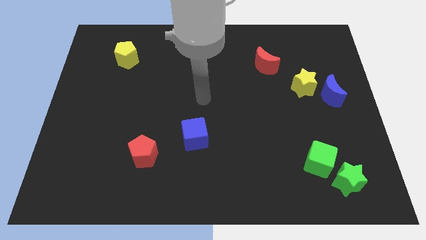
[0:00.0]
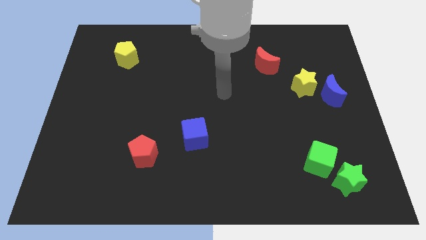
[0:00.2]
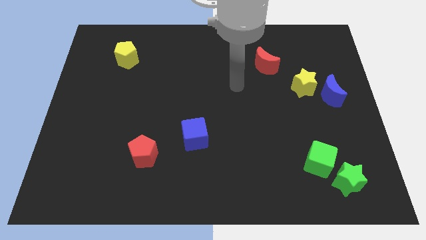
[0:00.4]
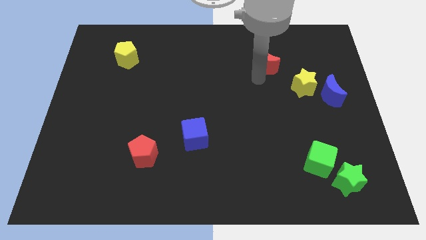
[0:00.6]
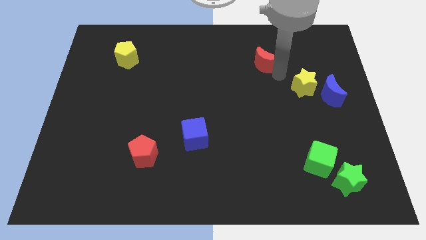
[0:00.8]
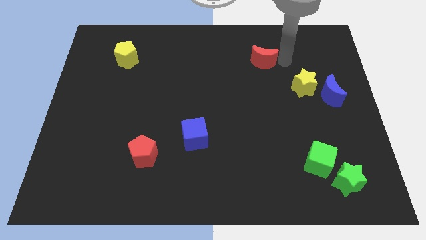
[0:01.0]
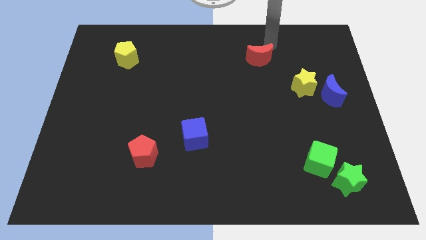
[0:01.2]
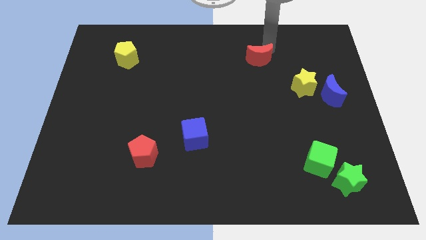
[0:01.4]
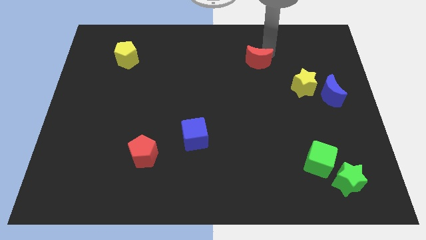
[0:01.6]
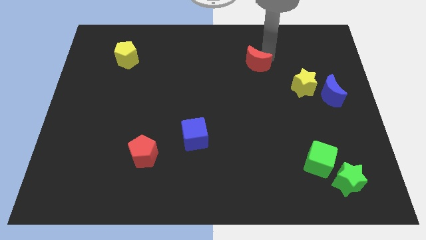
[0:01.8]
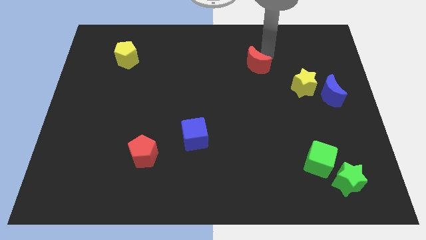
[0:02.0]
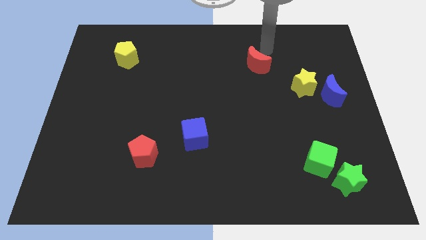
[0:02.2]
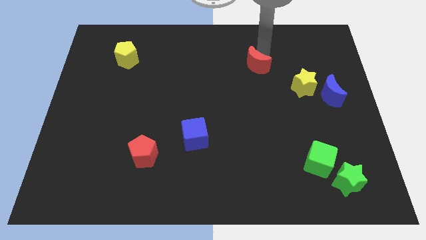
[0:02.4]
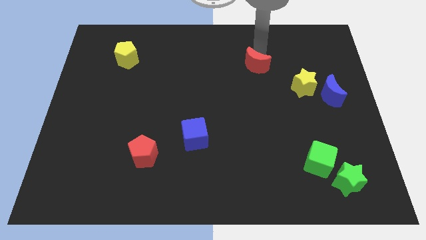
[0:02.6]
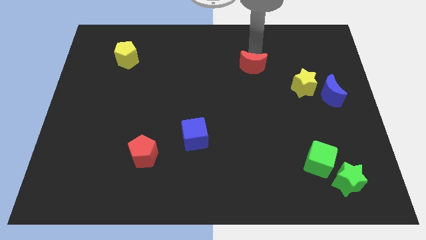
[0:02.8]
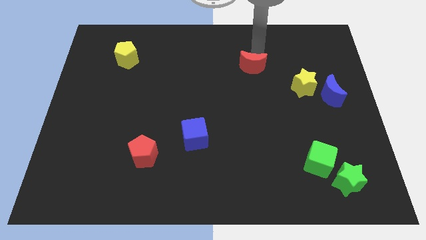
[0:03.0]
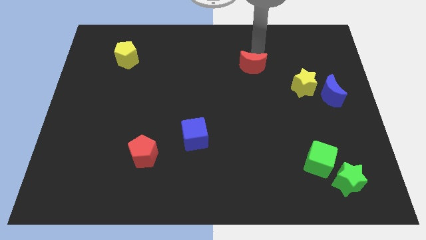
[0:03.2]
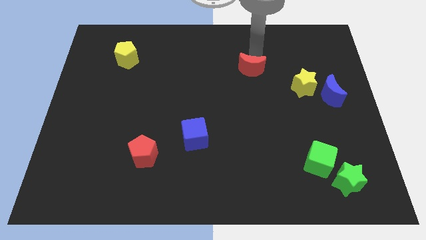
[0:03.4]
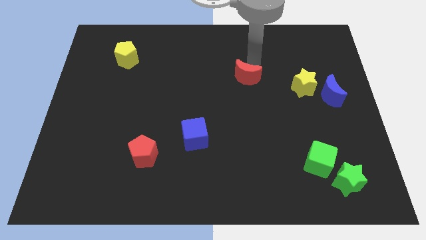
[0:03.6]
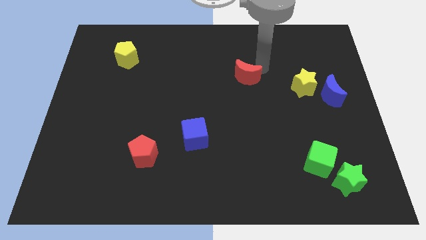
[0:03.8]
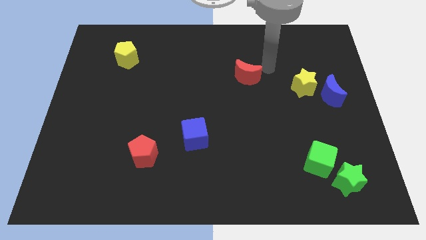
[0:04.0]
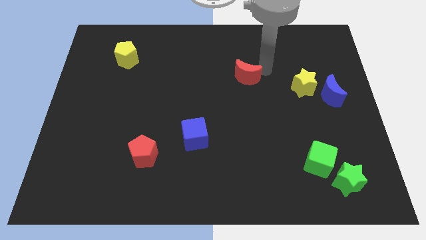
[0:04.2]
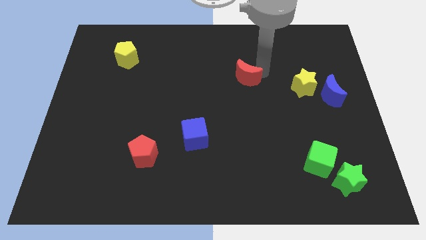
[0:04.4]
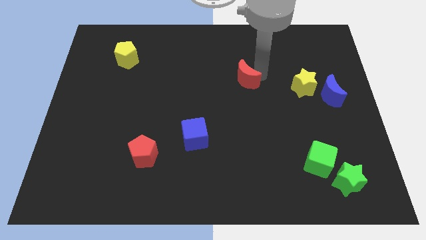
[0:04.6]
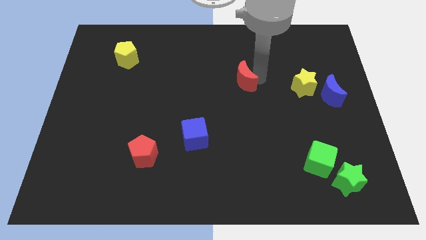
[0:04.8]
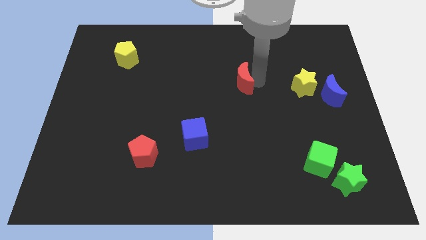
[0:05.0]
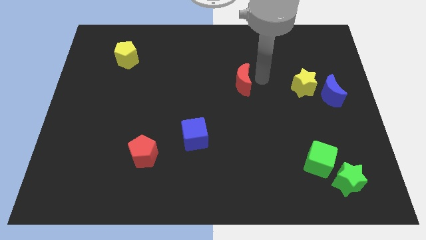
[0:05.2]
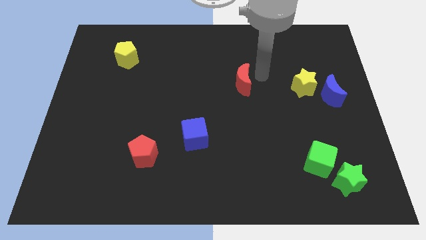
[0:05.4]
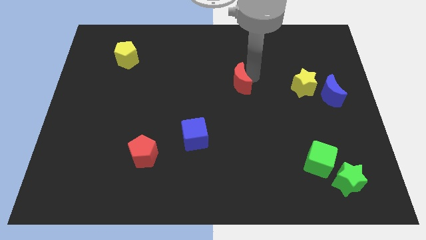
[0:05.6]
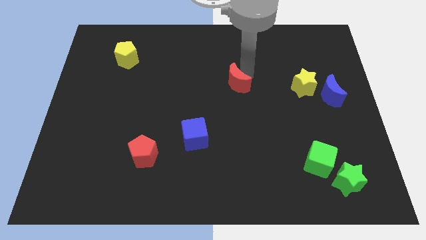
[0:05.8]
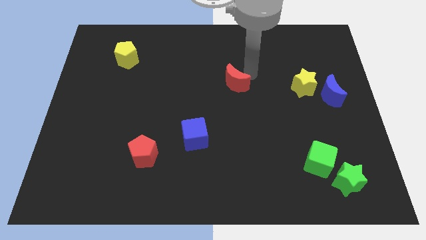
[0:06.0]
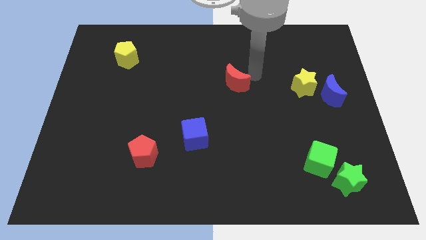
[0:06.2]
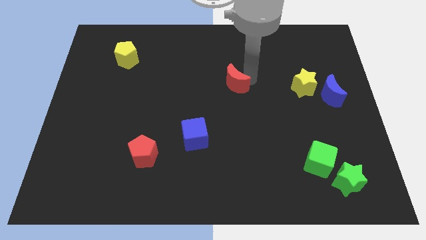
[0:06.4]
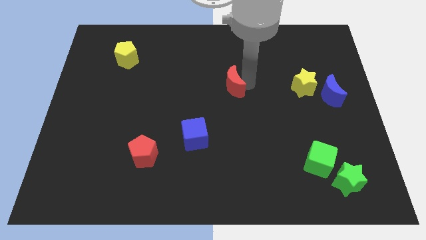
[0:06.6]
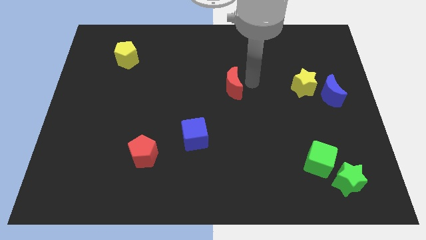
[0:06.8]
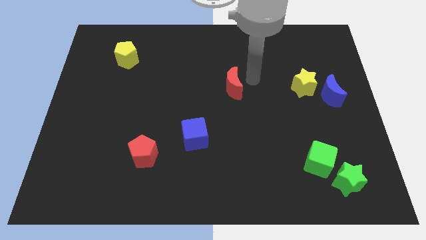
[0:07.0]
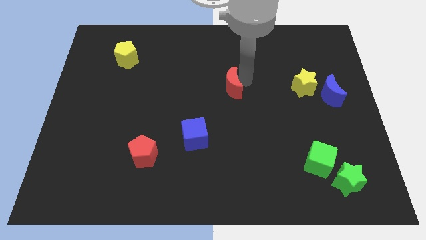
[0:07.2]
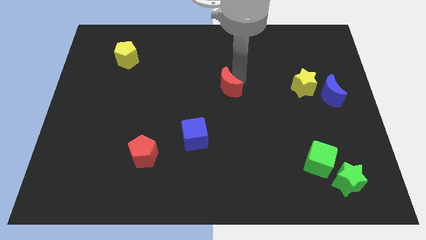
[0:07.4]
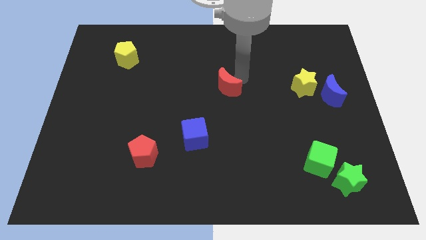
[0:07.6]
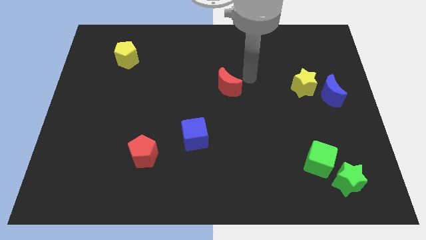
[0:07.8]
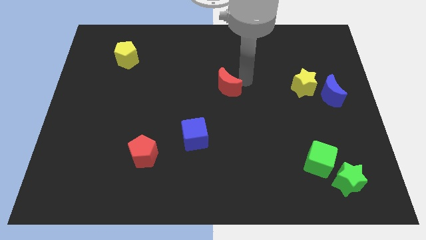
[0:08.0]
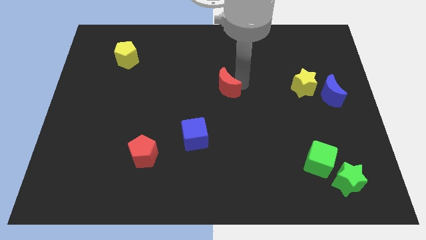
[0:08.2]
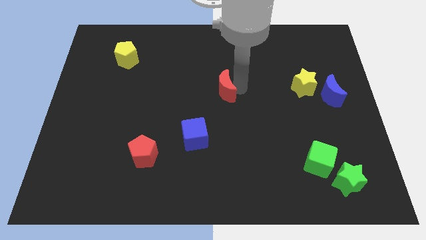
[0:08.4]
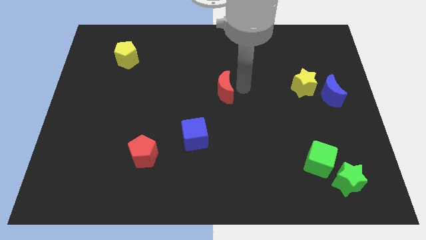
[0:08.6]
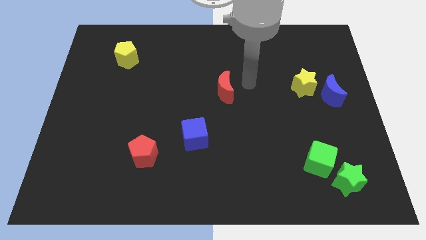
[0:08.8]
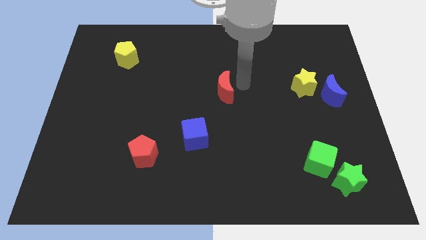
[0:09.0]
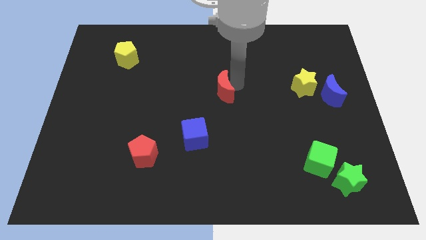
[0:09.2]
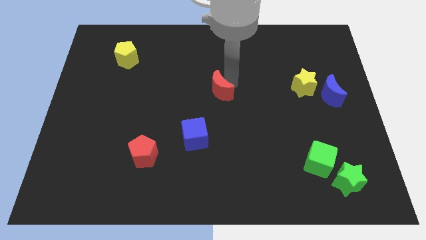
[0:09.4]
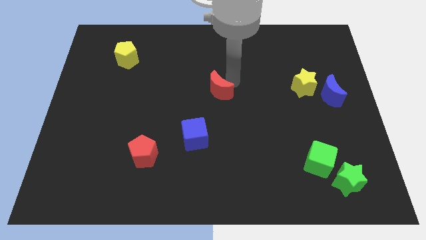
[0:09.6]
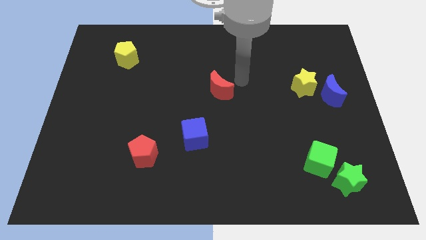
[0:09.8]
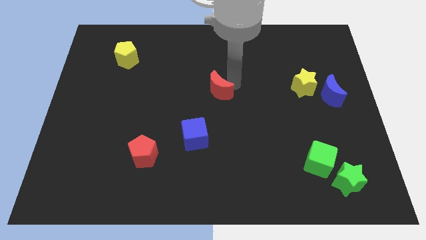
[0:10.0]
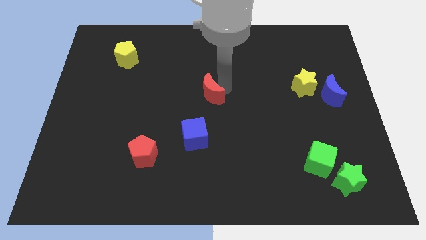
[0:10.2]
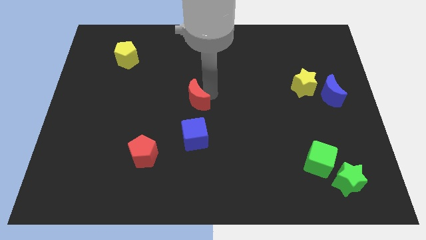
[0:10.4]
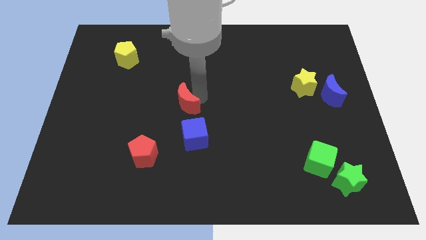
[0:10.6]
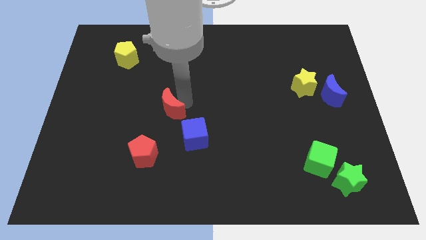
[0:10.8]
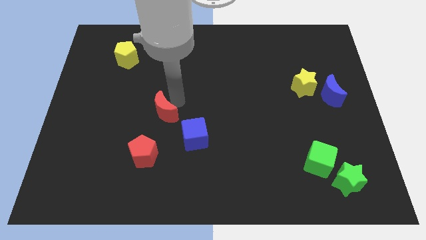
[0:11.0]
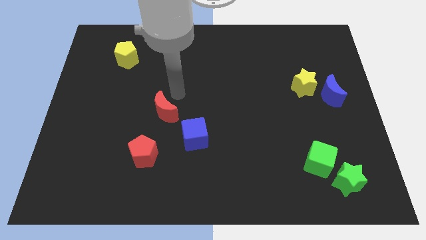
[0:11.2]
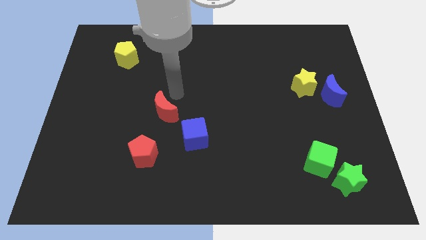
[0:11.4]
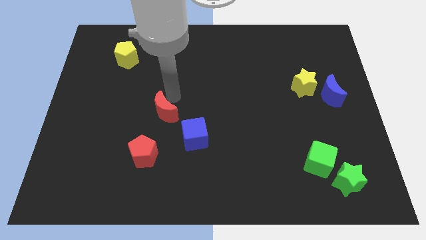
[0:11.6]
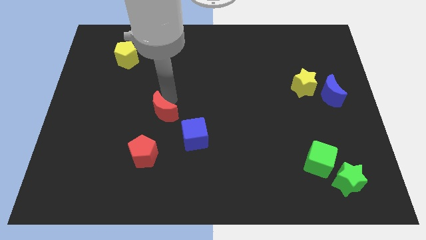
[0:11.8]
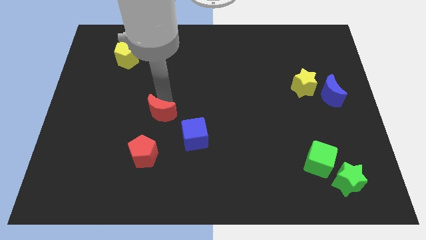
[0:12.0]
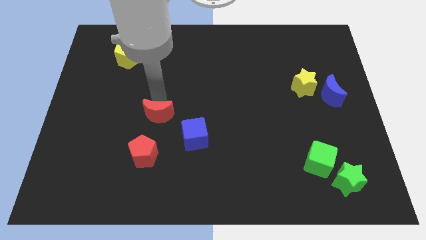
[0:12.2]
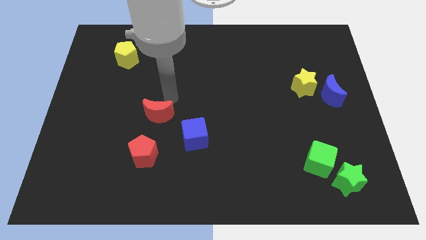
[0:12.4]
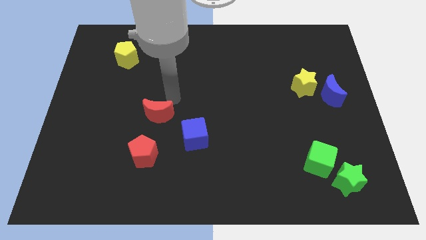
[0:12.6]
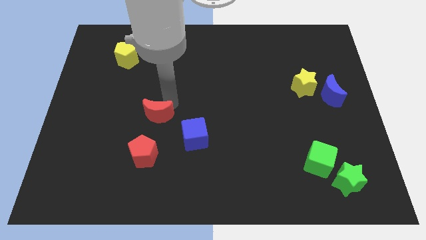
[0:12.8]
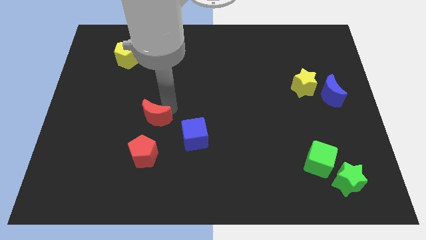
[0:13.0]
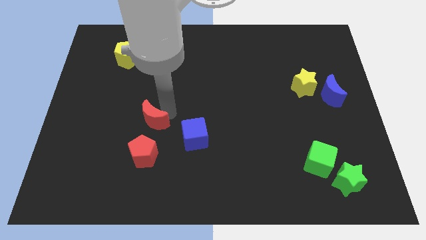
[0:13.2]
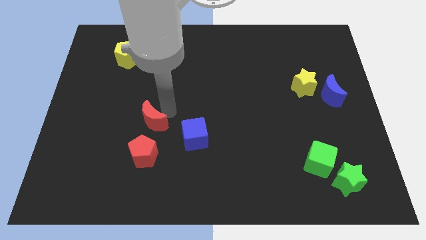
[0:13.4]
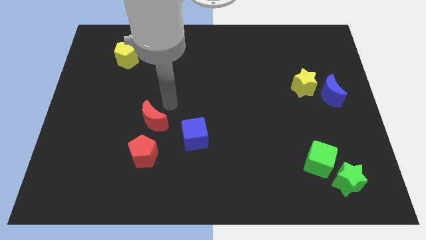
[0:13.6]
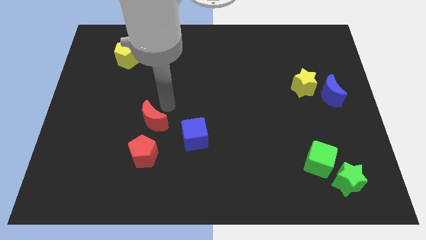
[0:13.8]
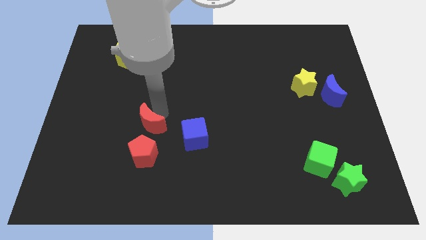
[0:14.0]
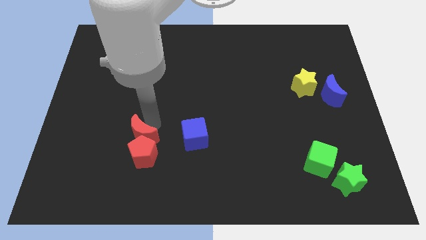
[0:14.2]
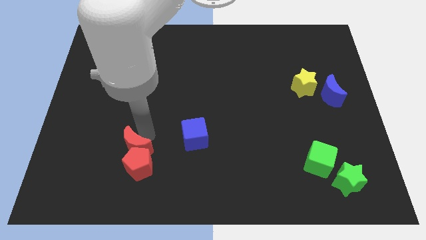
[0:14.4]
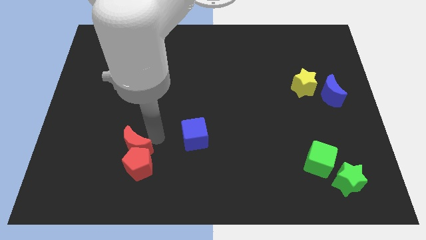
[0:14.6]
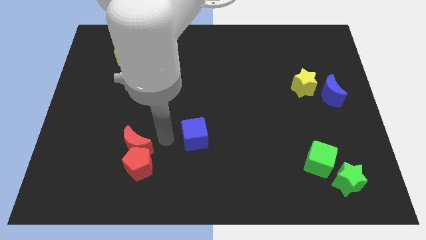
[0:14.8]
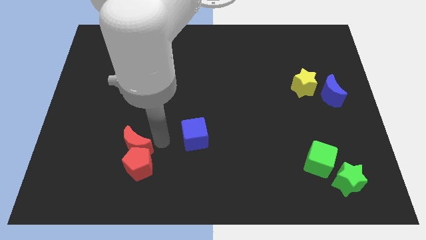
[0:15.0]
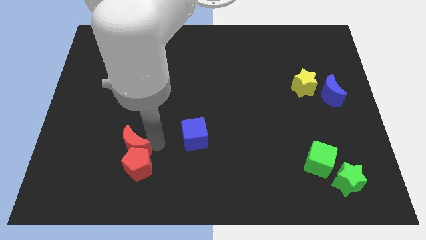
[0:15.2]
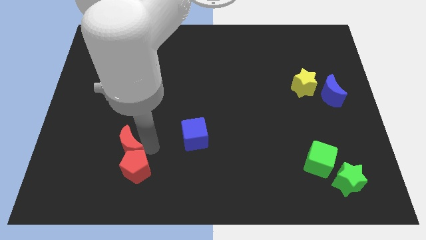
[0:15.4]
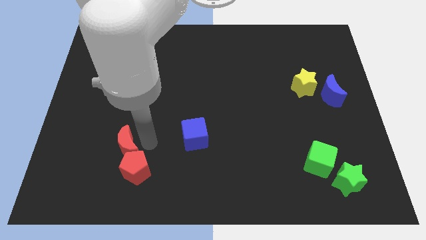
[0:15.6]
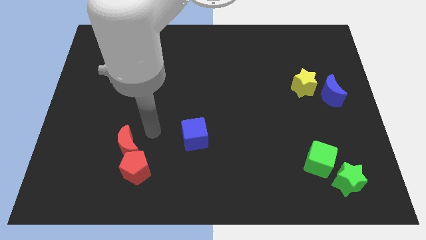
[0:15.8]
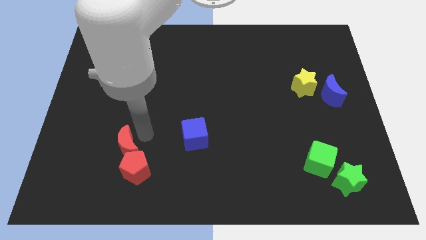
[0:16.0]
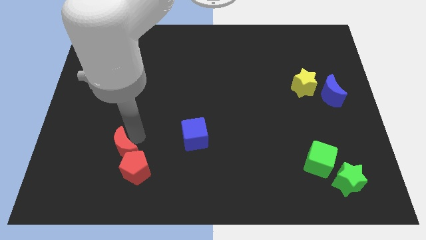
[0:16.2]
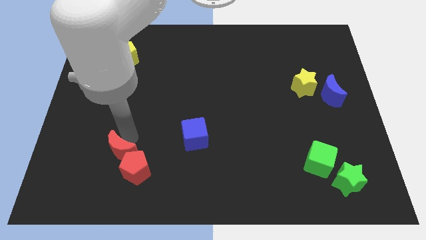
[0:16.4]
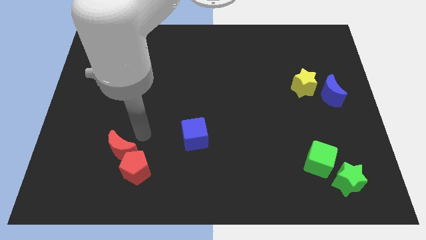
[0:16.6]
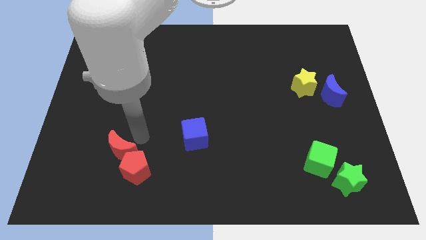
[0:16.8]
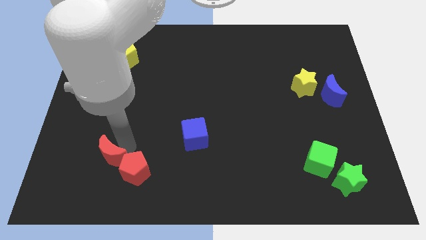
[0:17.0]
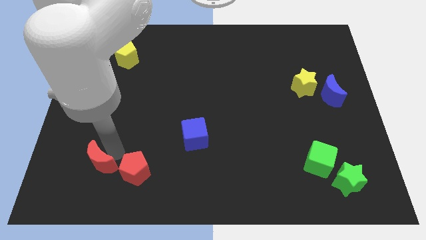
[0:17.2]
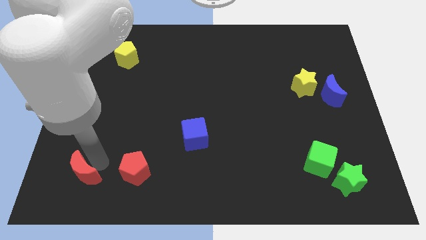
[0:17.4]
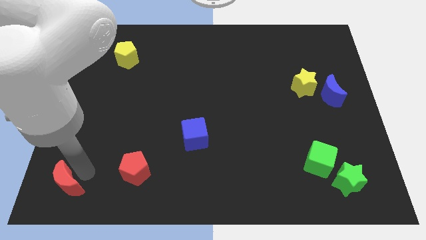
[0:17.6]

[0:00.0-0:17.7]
put the red moon to the bottom left of the board
